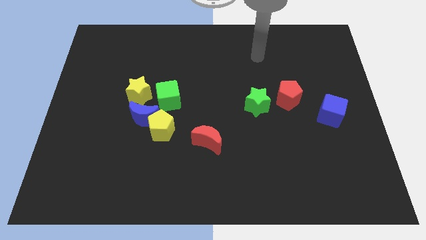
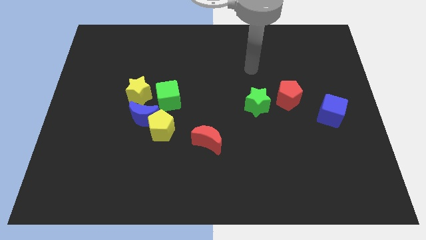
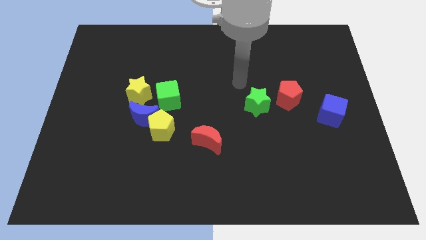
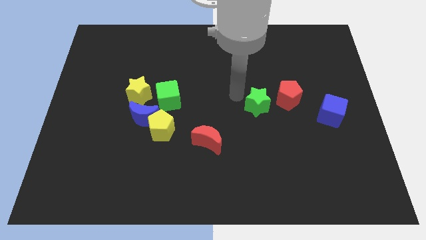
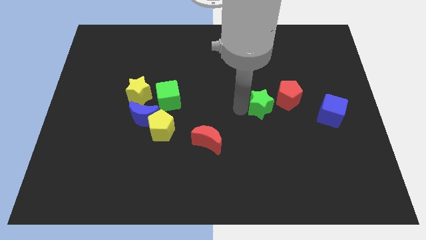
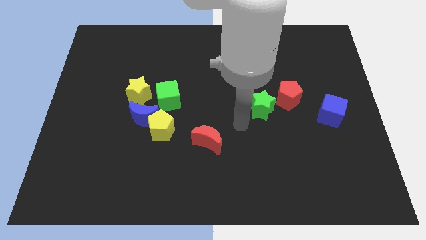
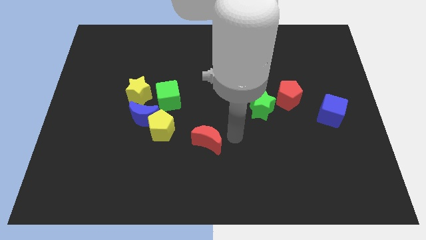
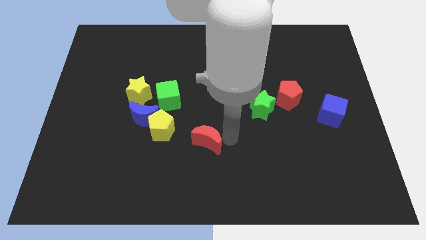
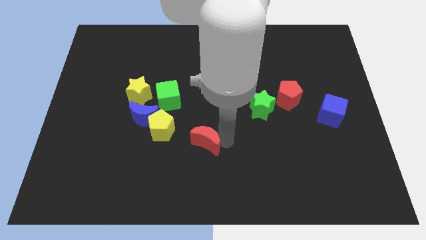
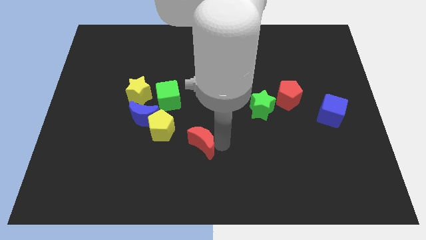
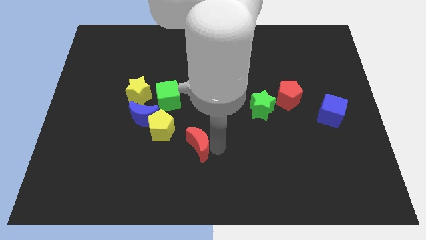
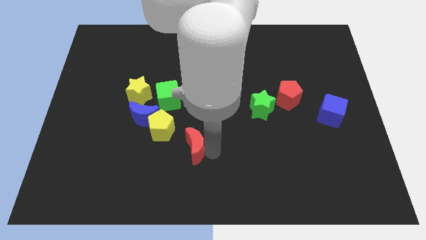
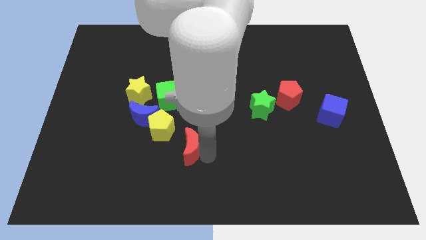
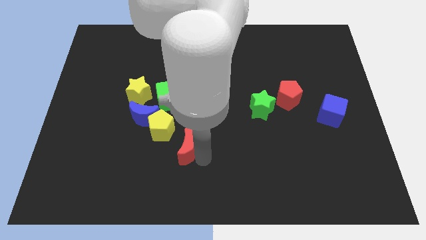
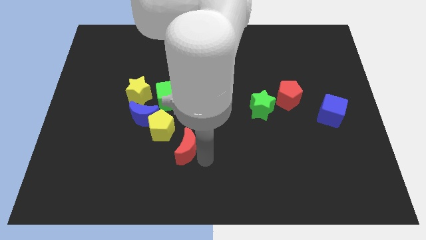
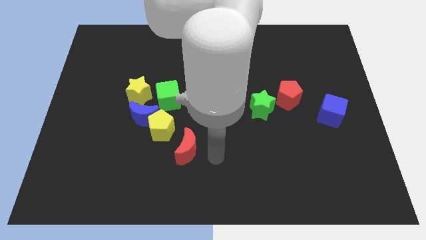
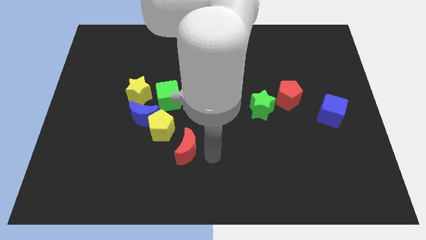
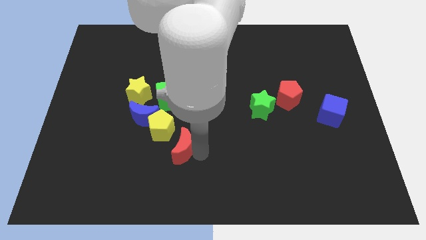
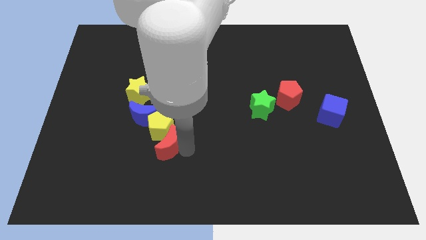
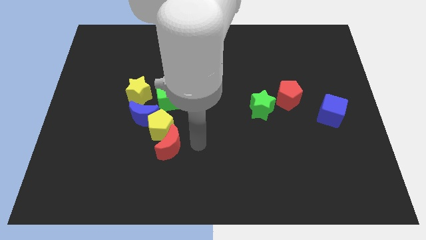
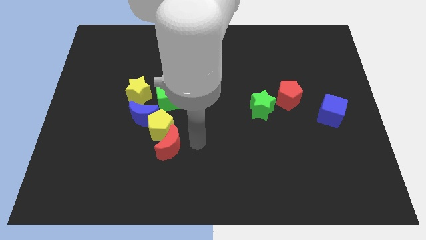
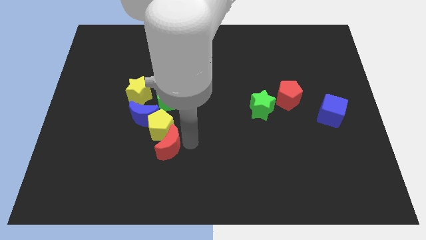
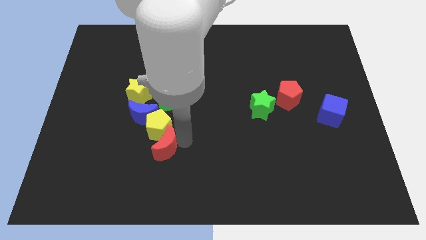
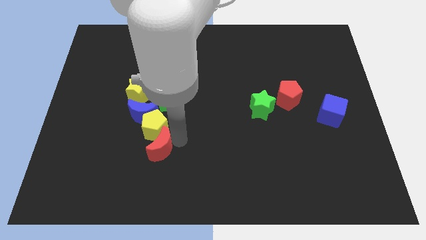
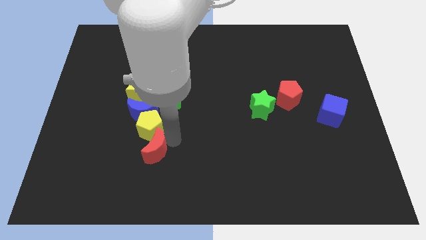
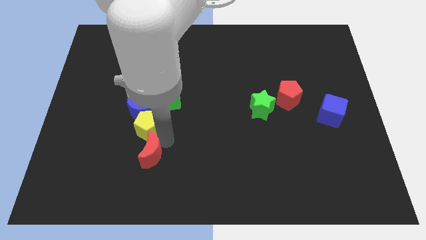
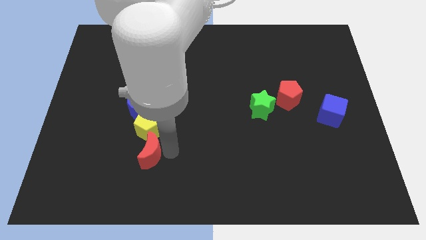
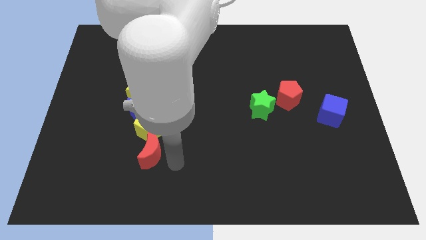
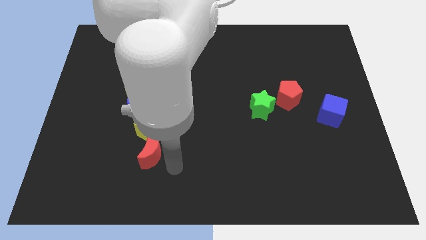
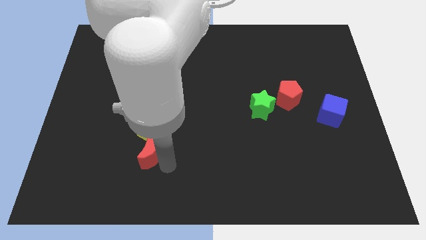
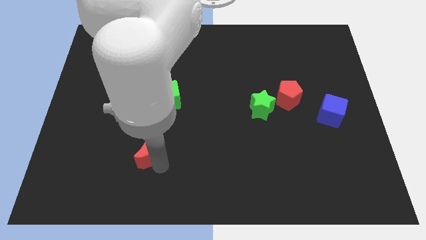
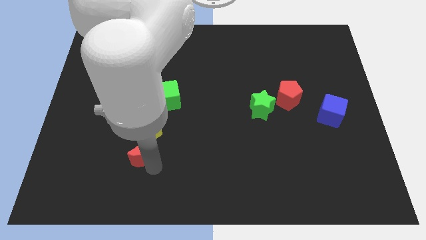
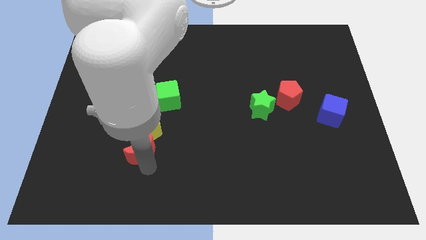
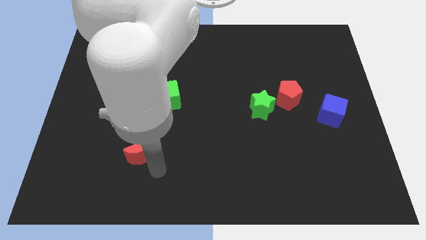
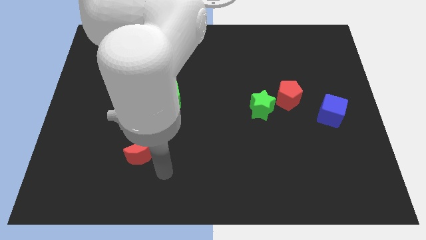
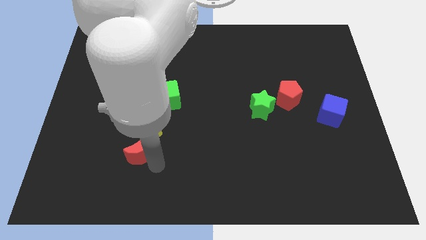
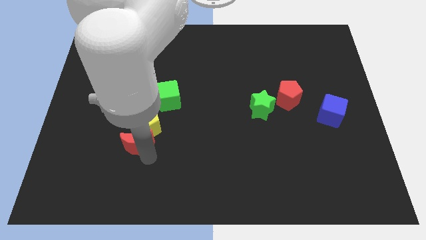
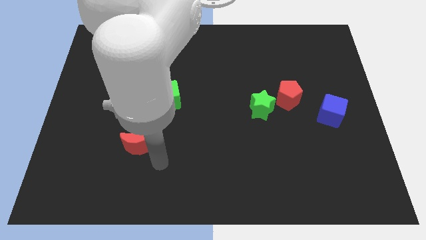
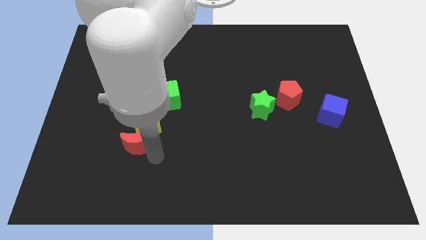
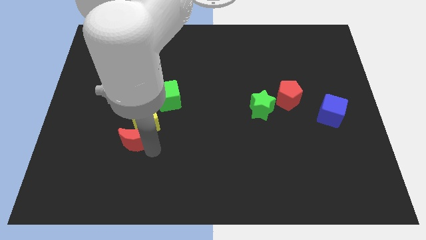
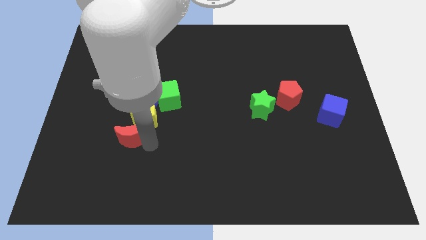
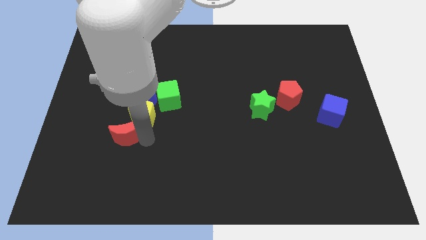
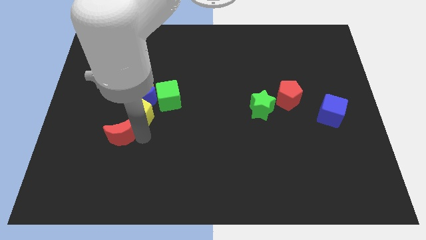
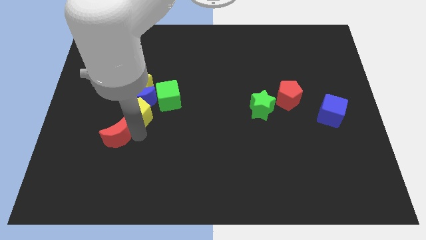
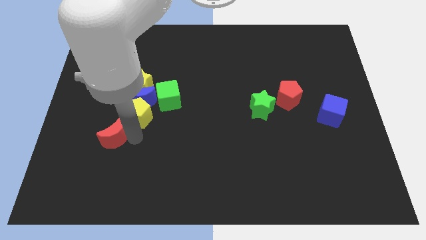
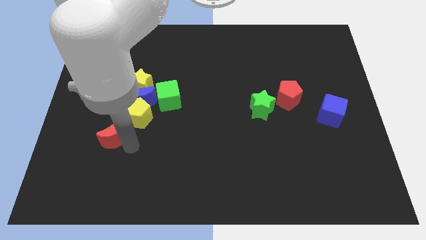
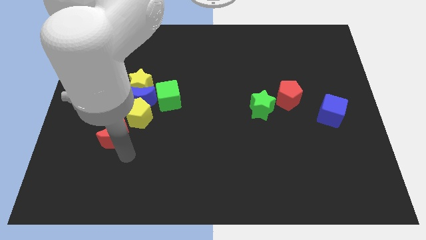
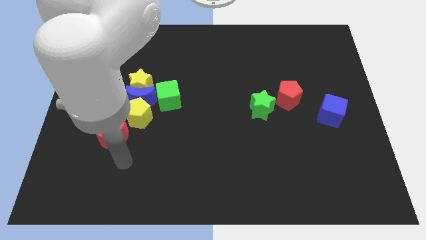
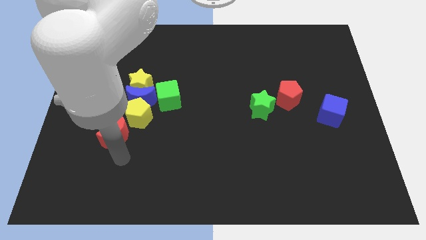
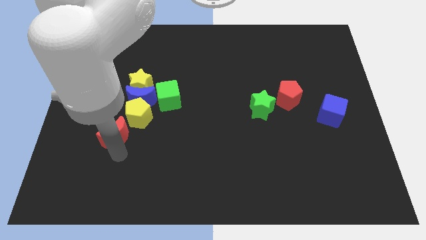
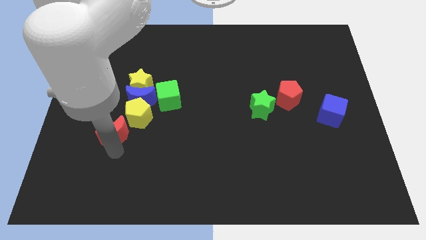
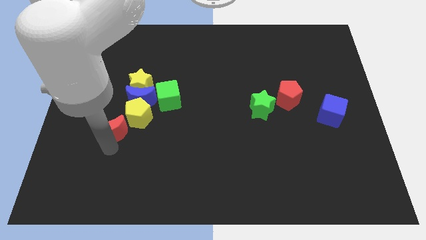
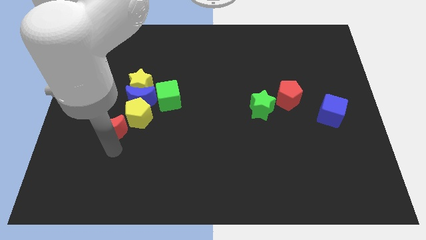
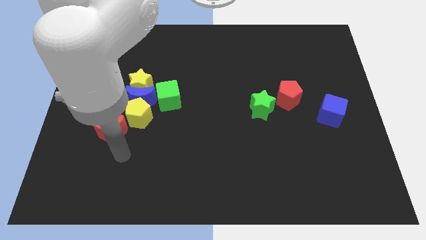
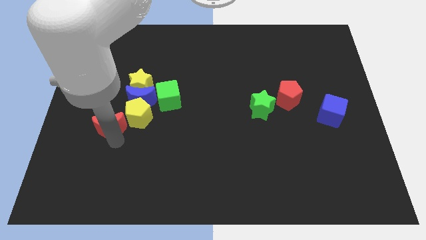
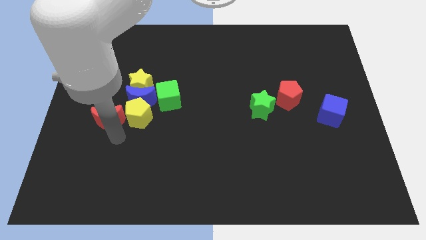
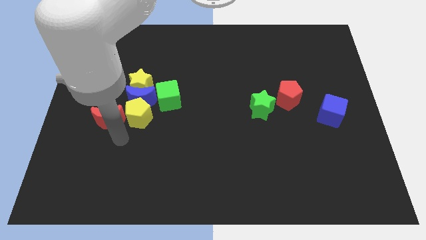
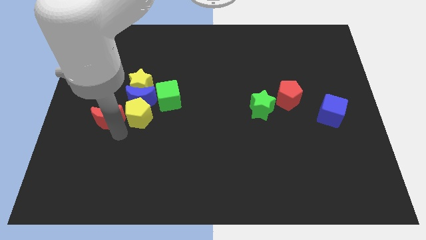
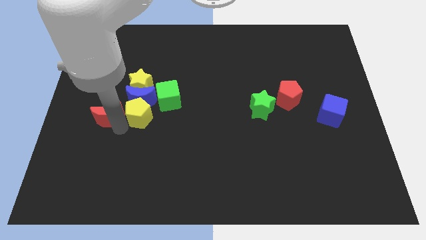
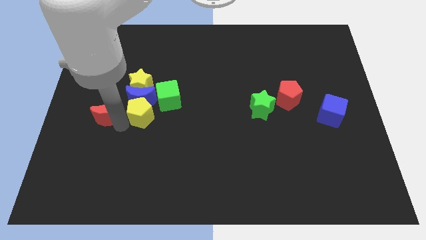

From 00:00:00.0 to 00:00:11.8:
put the red moon to the left side of the blue moon
